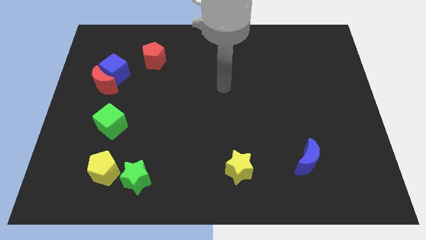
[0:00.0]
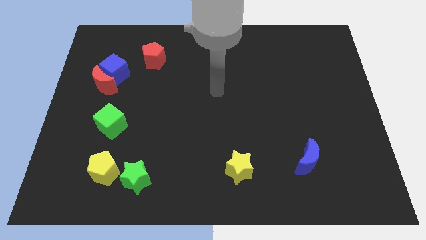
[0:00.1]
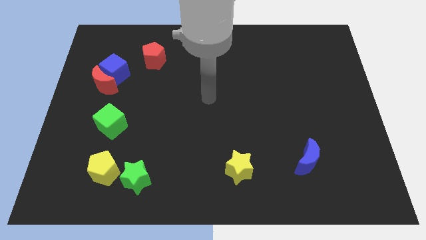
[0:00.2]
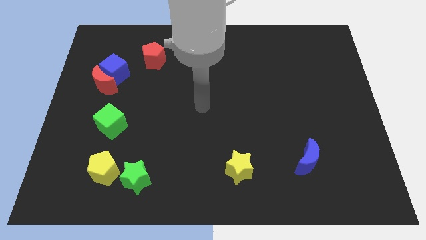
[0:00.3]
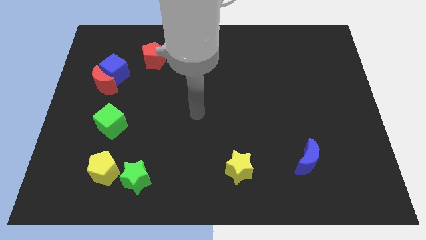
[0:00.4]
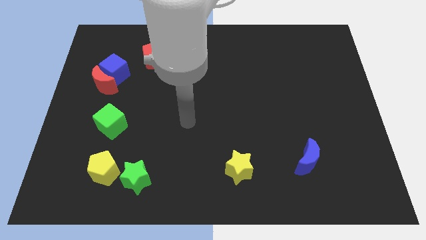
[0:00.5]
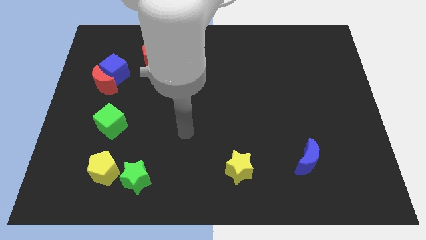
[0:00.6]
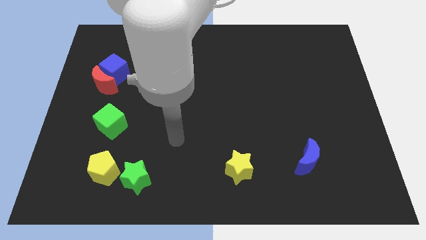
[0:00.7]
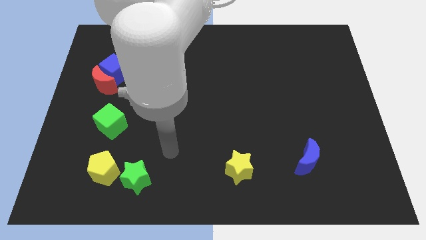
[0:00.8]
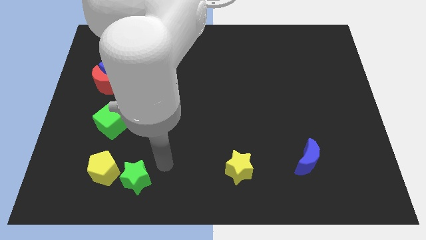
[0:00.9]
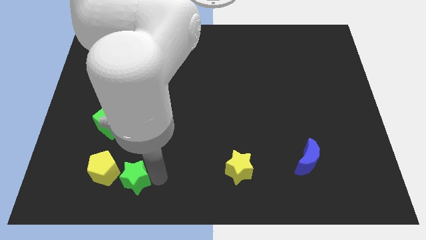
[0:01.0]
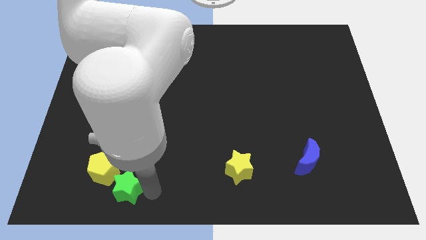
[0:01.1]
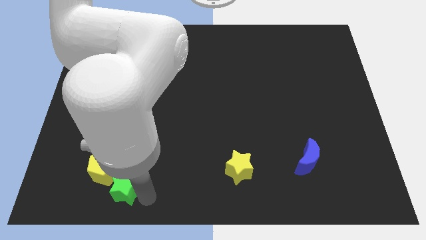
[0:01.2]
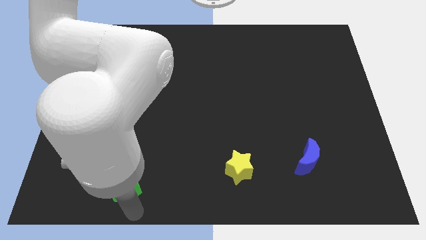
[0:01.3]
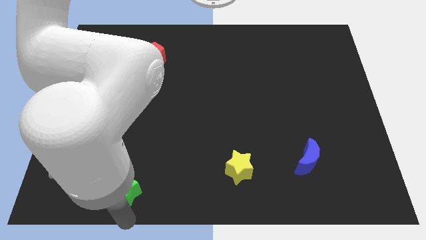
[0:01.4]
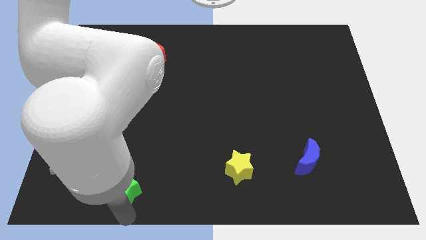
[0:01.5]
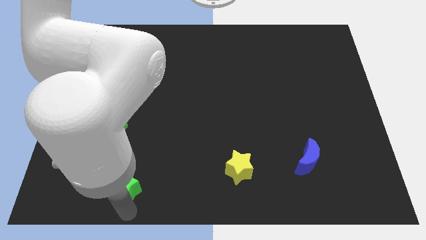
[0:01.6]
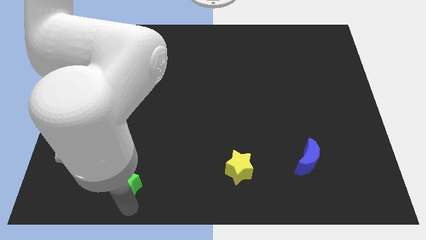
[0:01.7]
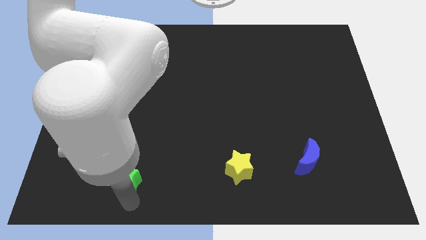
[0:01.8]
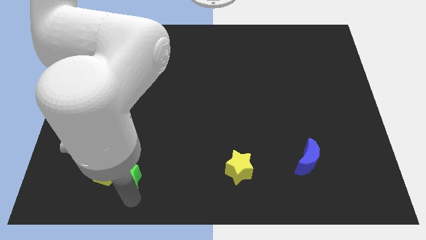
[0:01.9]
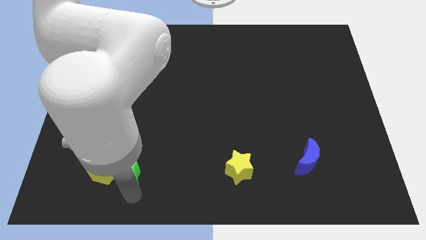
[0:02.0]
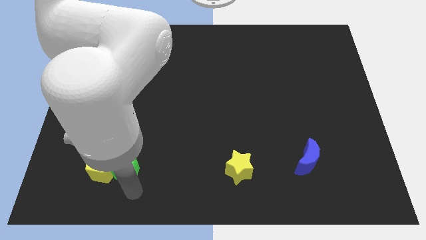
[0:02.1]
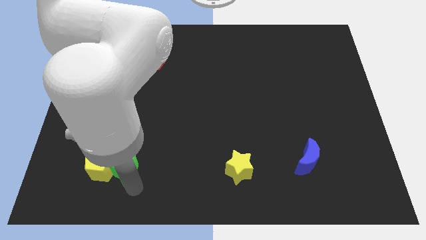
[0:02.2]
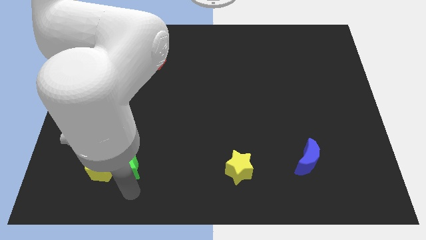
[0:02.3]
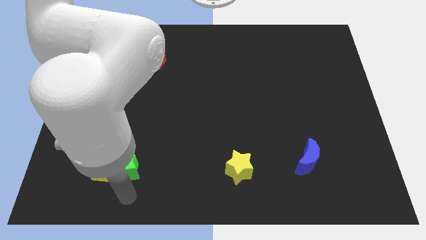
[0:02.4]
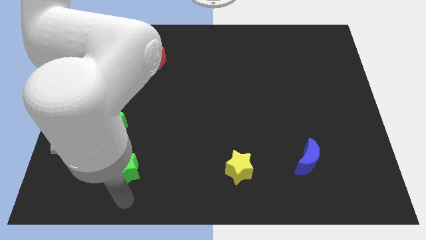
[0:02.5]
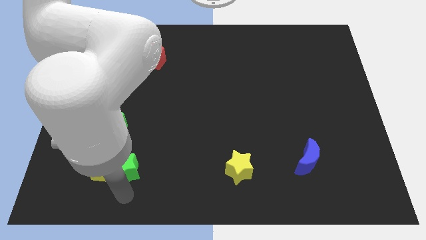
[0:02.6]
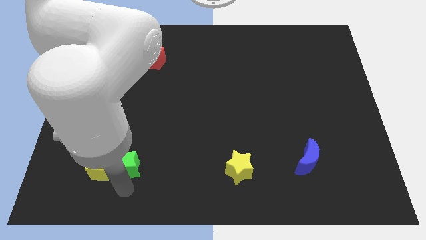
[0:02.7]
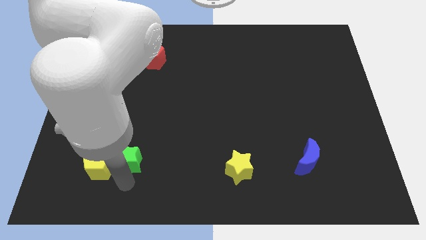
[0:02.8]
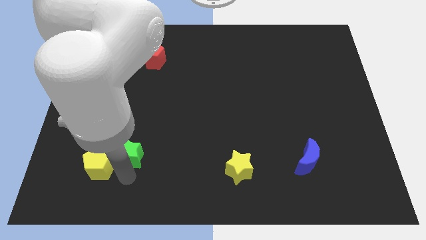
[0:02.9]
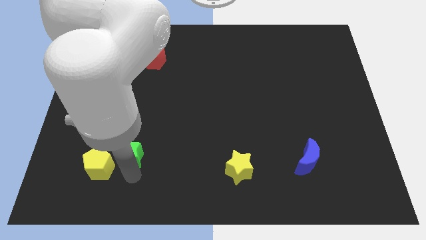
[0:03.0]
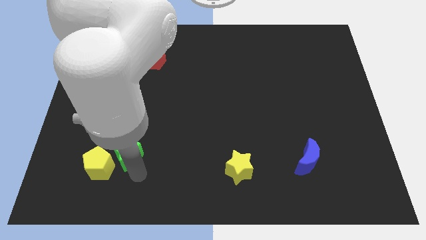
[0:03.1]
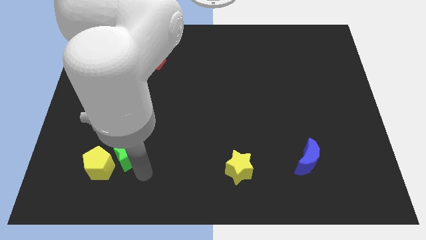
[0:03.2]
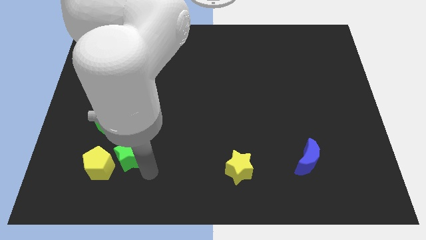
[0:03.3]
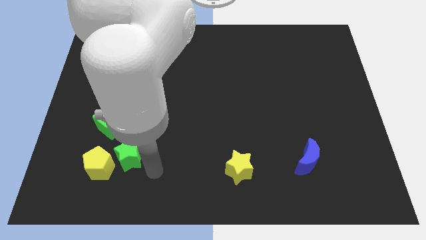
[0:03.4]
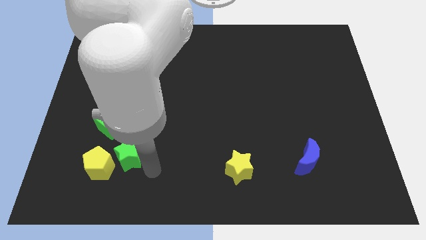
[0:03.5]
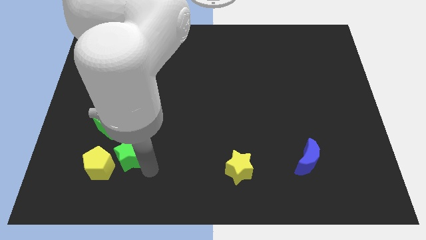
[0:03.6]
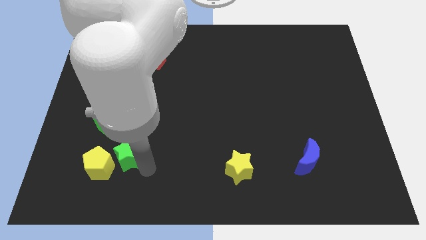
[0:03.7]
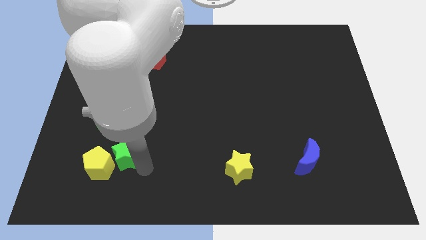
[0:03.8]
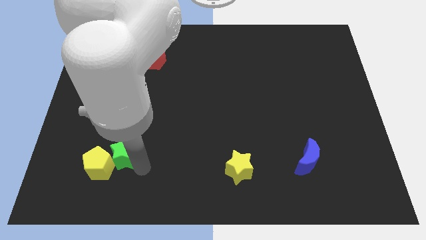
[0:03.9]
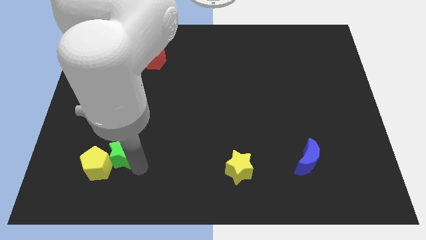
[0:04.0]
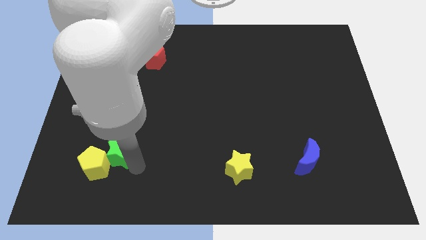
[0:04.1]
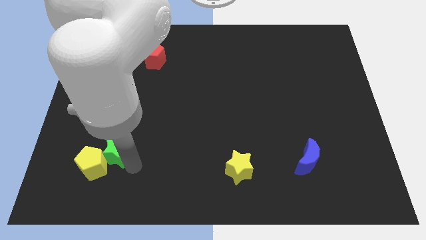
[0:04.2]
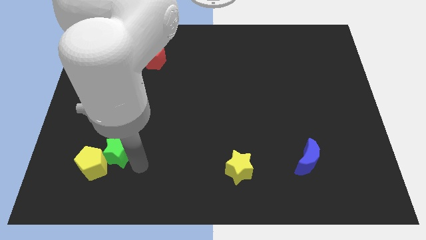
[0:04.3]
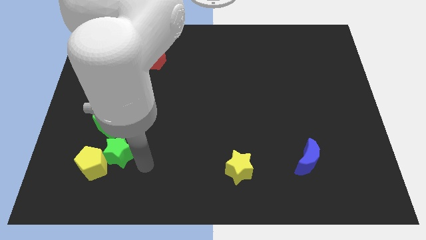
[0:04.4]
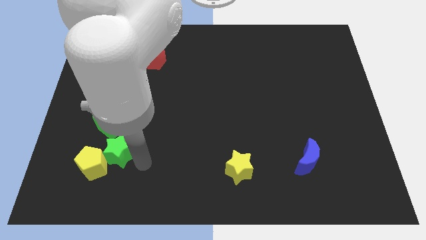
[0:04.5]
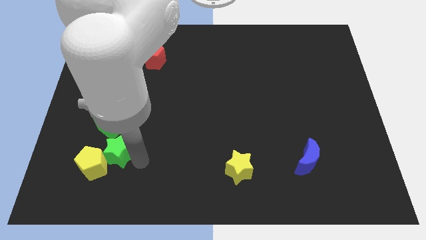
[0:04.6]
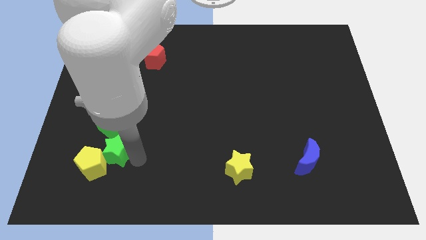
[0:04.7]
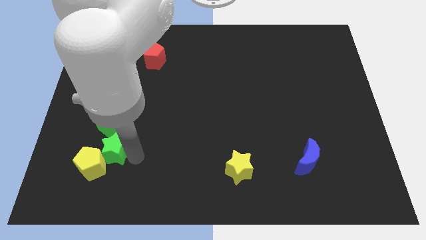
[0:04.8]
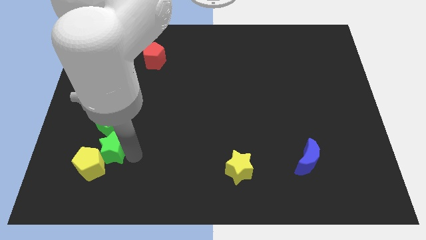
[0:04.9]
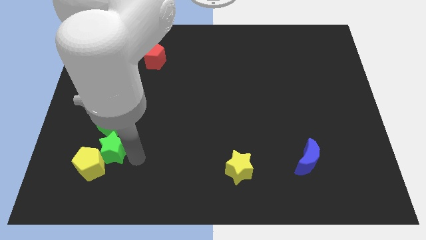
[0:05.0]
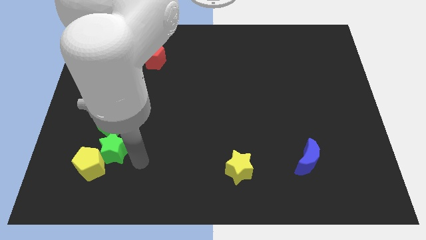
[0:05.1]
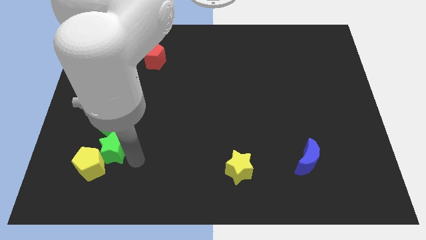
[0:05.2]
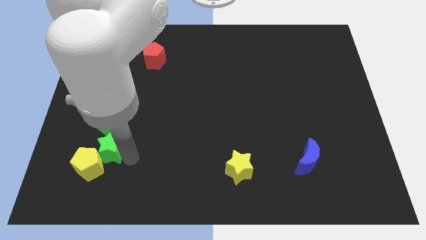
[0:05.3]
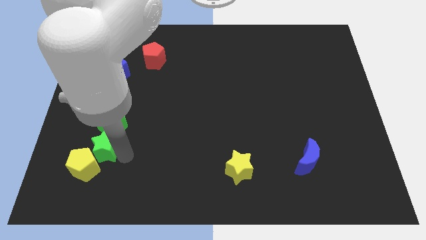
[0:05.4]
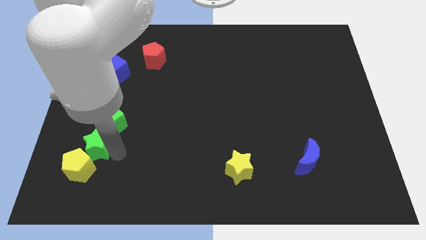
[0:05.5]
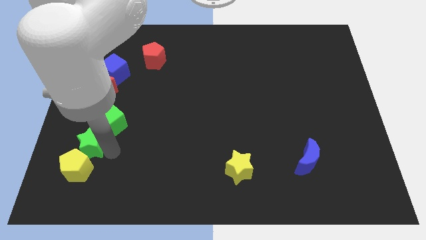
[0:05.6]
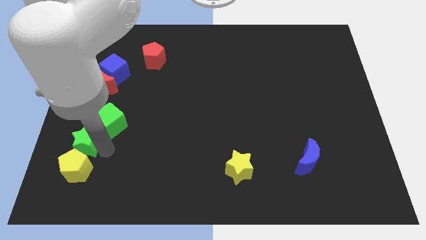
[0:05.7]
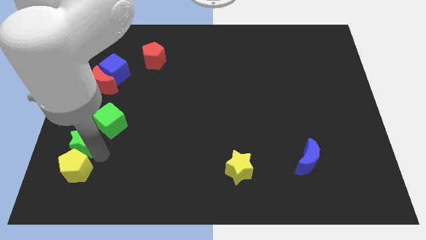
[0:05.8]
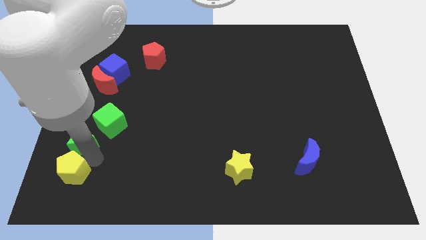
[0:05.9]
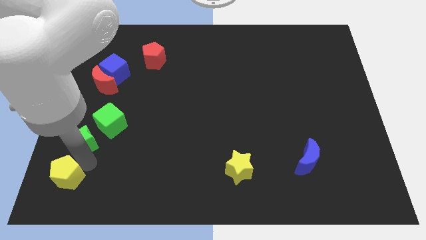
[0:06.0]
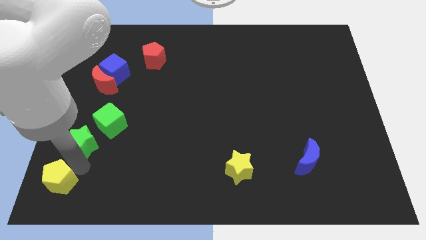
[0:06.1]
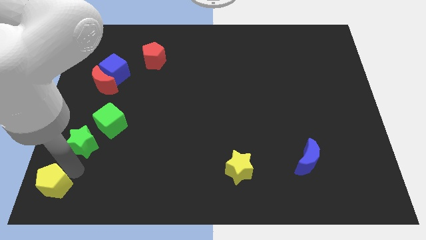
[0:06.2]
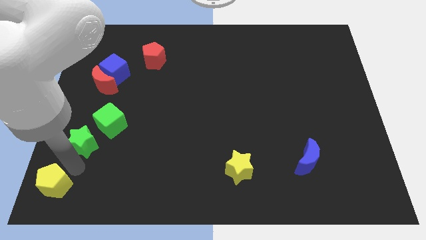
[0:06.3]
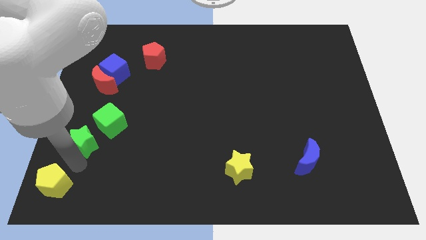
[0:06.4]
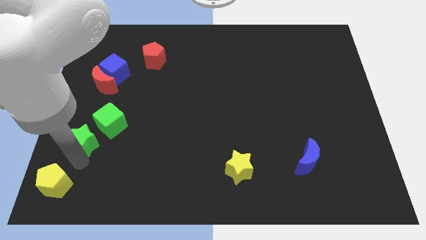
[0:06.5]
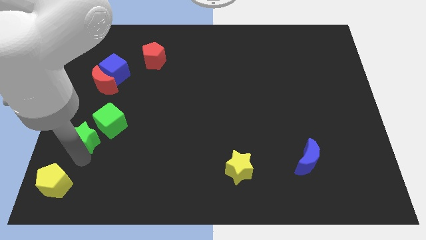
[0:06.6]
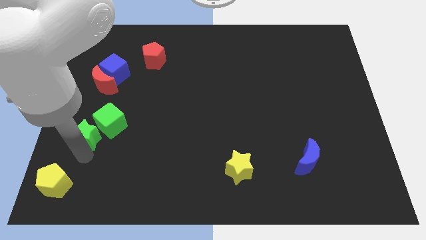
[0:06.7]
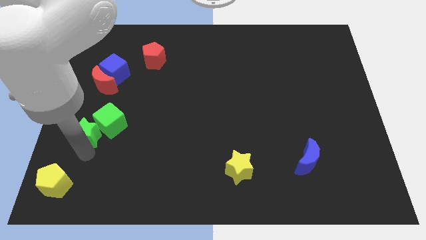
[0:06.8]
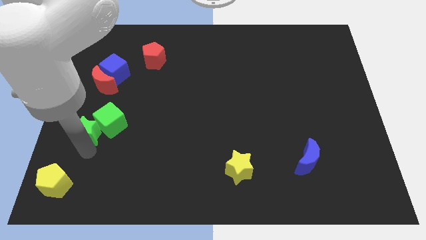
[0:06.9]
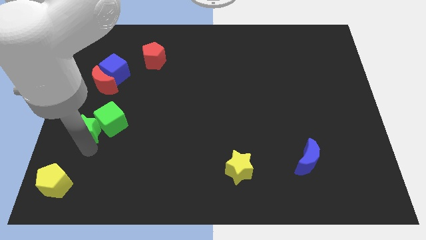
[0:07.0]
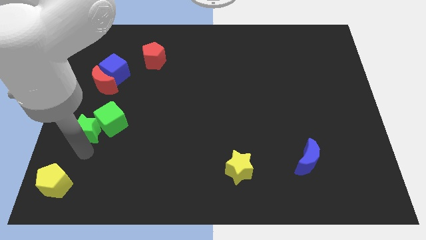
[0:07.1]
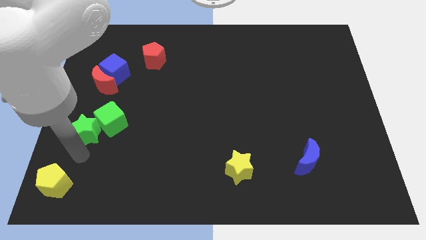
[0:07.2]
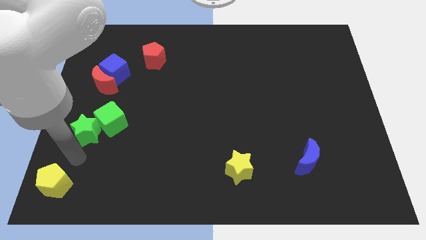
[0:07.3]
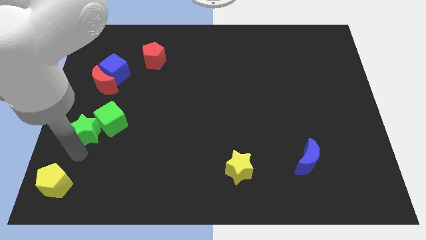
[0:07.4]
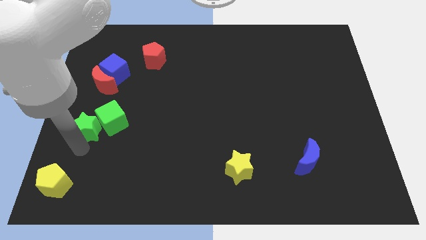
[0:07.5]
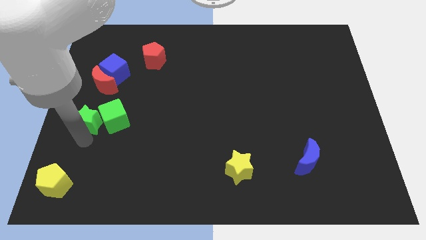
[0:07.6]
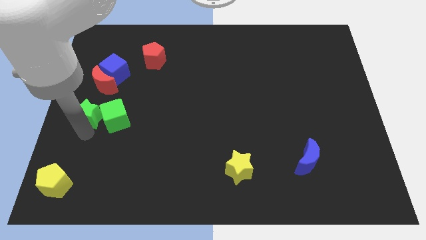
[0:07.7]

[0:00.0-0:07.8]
put the green star to the top left side of the green cube
